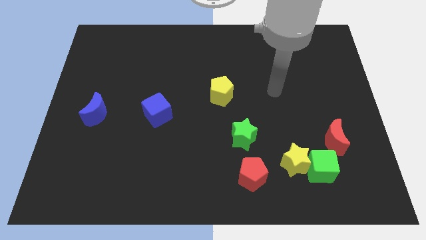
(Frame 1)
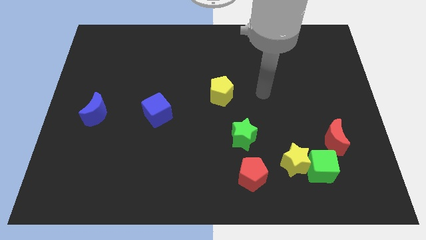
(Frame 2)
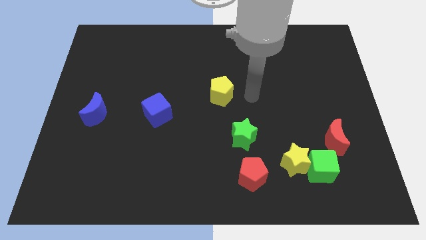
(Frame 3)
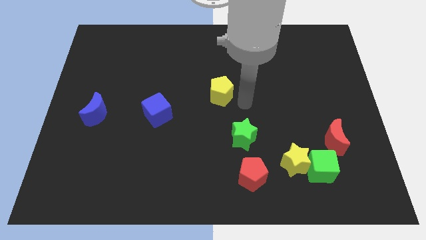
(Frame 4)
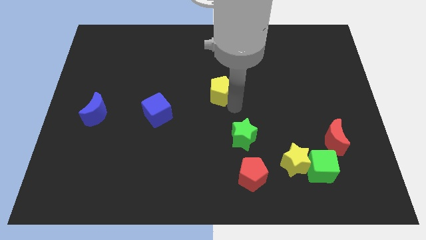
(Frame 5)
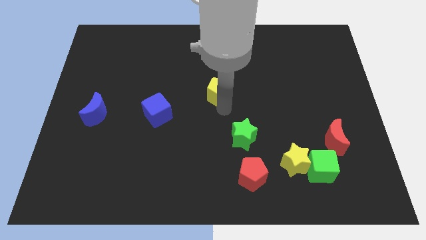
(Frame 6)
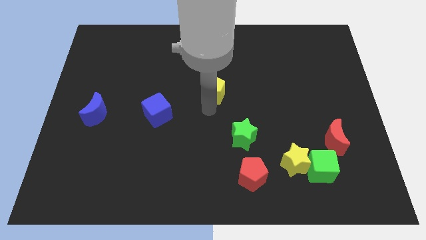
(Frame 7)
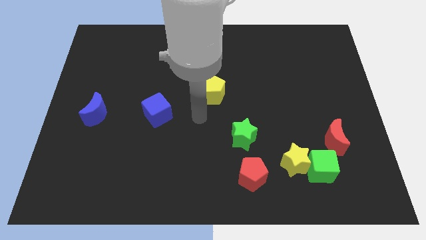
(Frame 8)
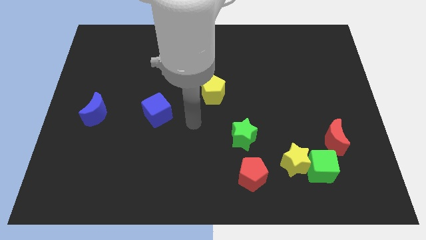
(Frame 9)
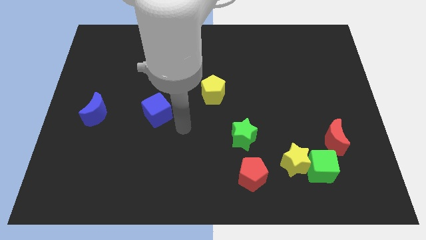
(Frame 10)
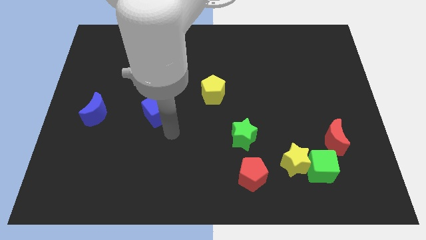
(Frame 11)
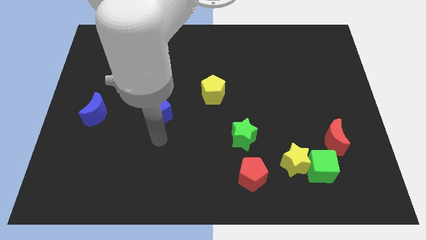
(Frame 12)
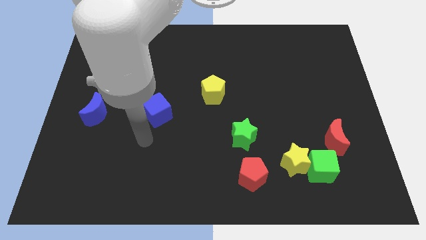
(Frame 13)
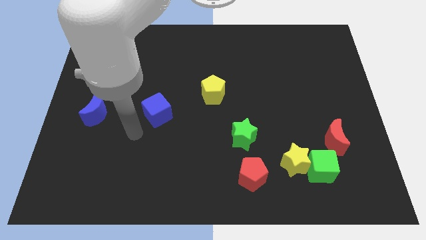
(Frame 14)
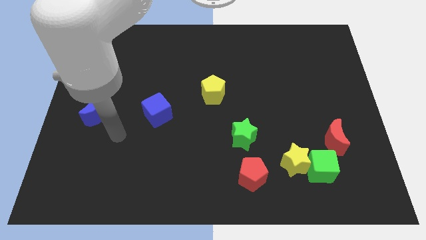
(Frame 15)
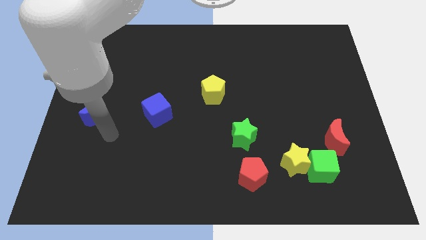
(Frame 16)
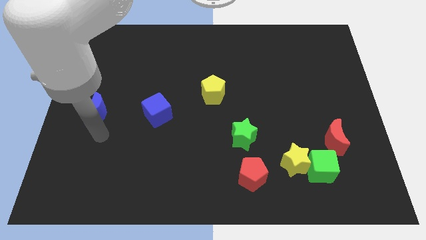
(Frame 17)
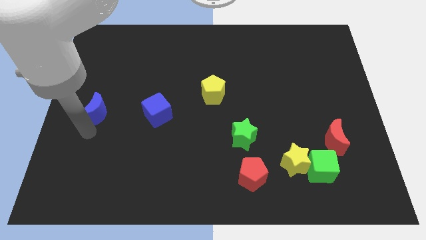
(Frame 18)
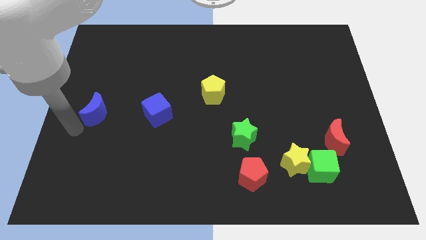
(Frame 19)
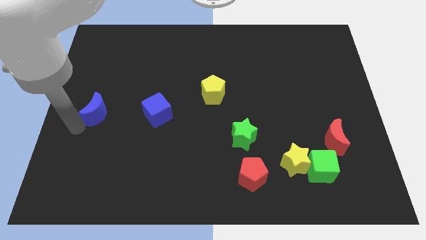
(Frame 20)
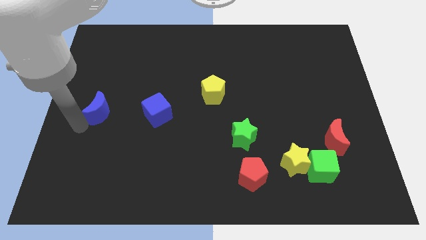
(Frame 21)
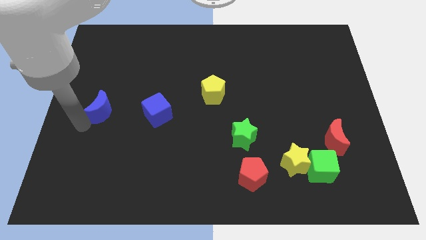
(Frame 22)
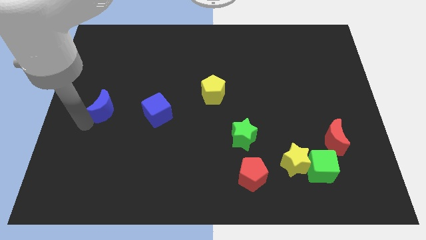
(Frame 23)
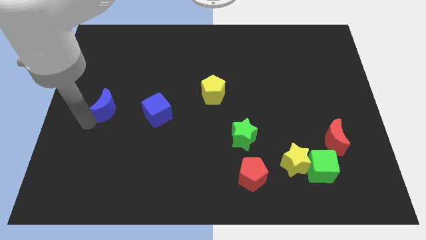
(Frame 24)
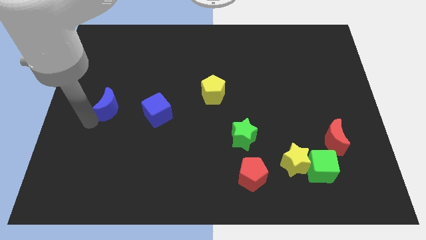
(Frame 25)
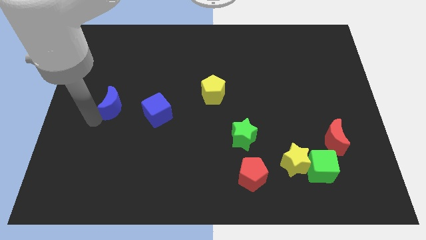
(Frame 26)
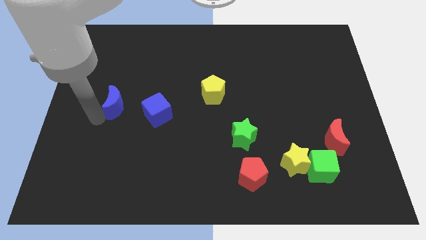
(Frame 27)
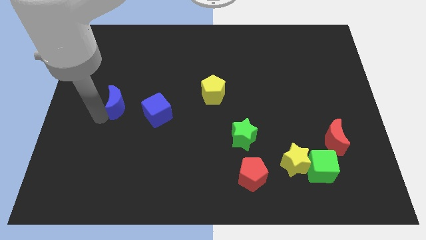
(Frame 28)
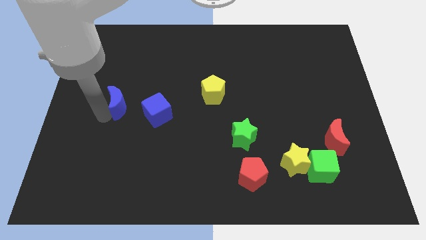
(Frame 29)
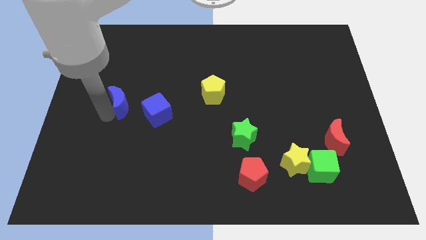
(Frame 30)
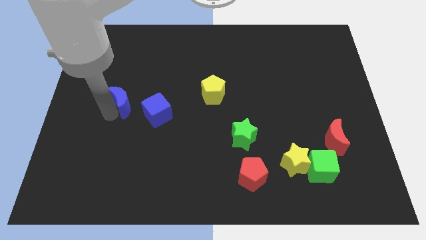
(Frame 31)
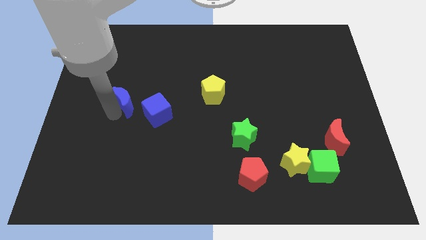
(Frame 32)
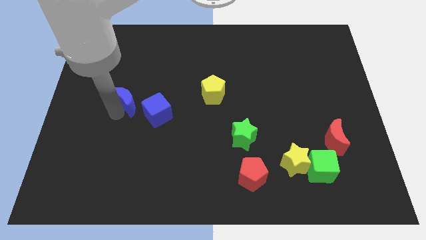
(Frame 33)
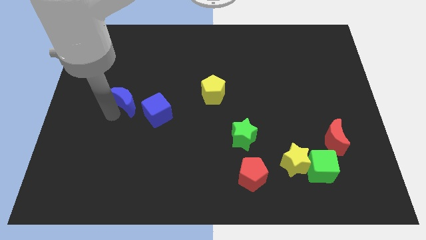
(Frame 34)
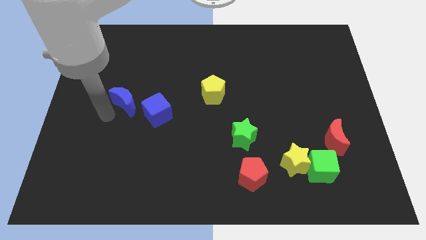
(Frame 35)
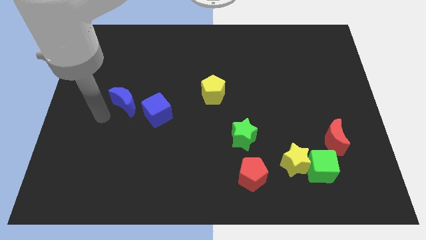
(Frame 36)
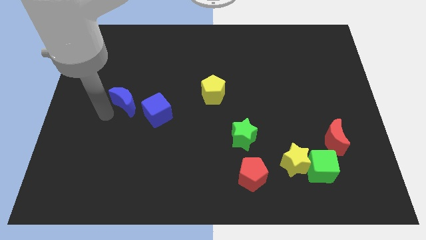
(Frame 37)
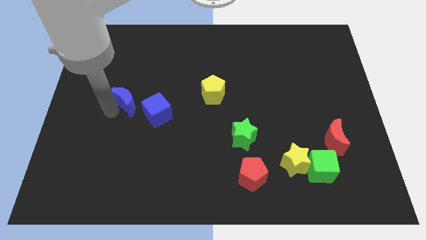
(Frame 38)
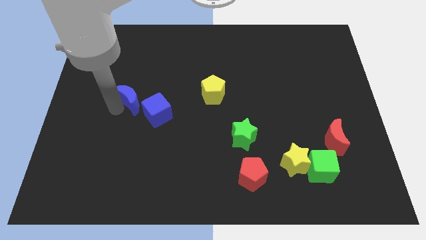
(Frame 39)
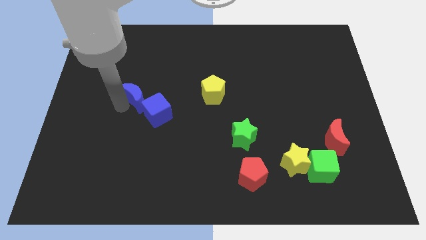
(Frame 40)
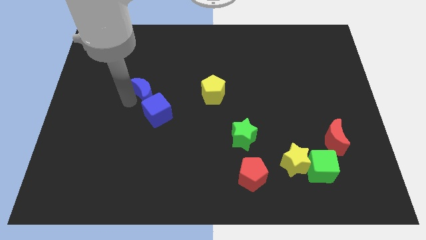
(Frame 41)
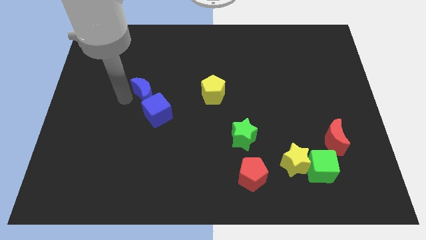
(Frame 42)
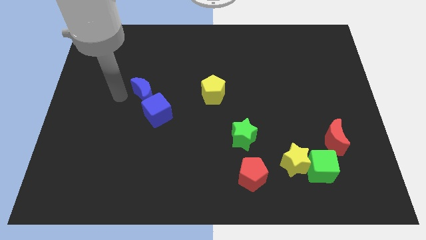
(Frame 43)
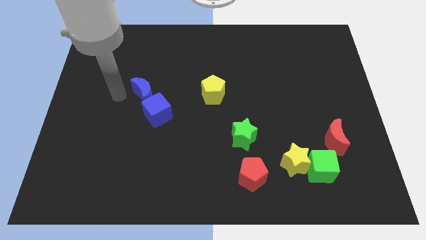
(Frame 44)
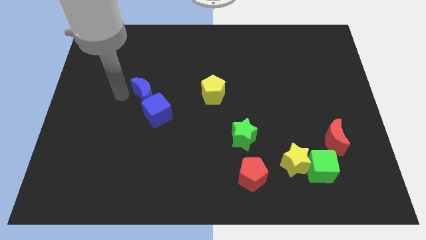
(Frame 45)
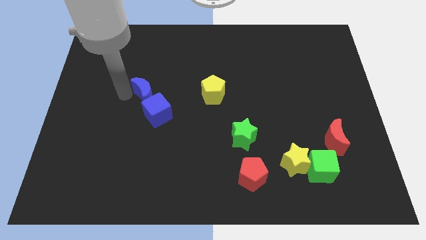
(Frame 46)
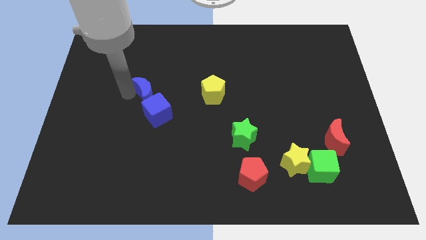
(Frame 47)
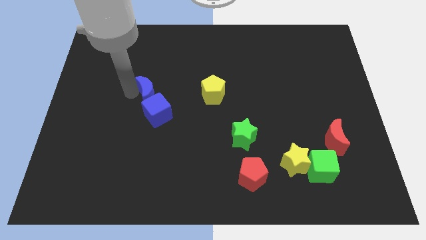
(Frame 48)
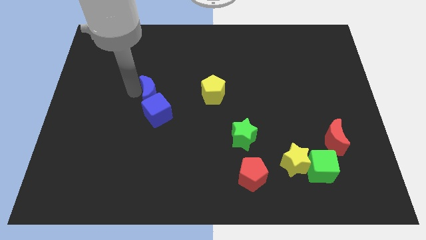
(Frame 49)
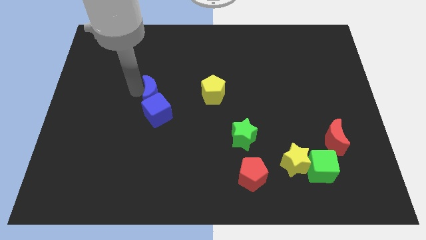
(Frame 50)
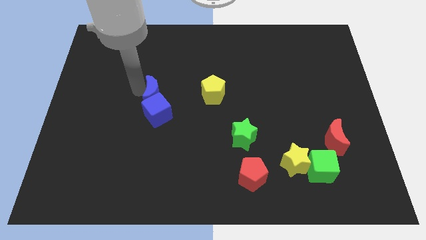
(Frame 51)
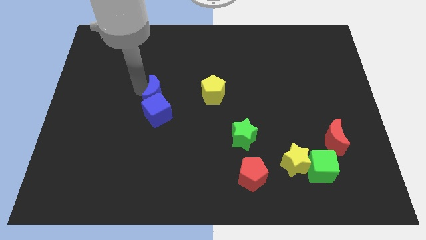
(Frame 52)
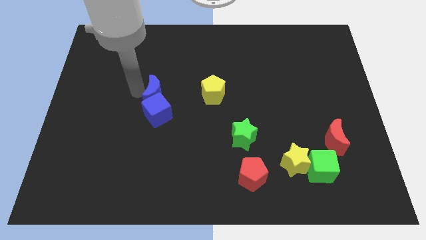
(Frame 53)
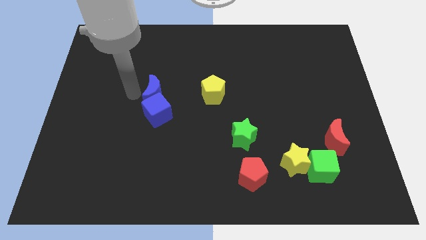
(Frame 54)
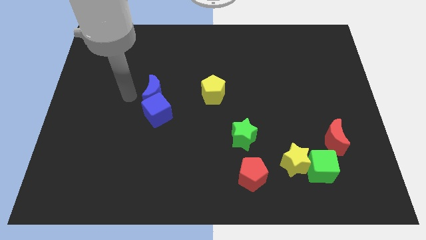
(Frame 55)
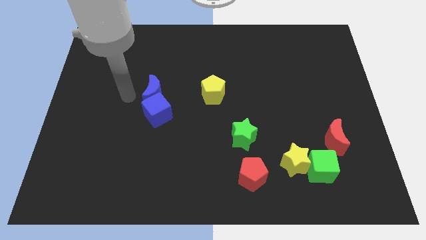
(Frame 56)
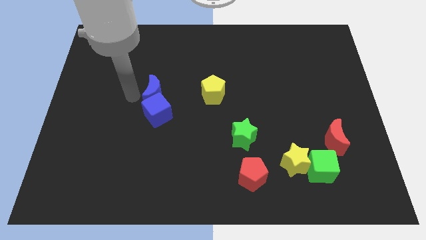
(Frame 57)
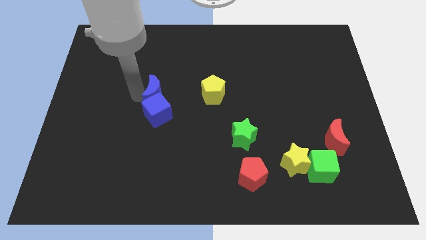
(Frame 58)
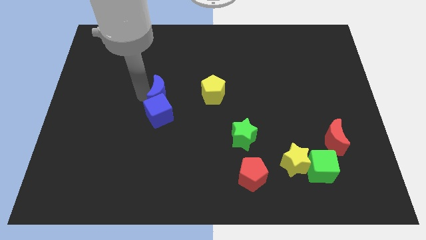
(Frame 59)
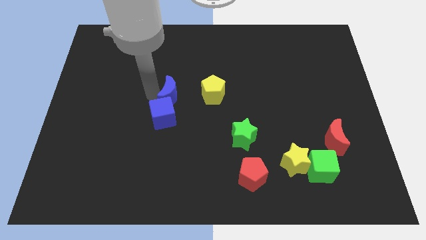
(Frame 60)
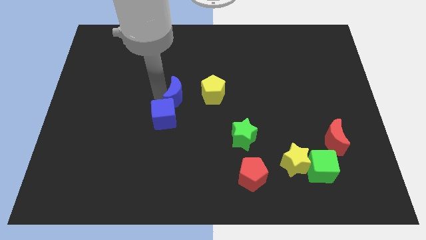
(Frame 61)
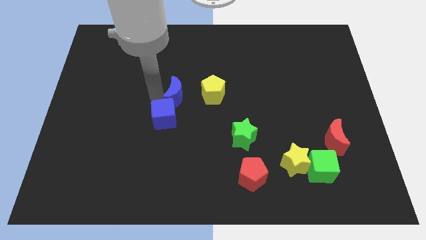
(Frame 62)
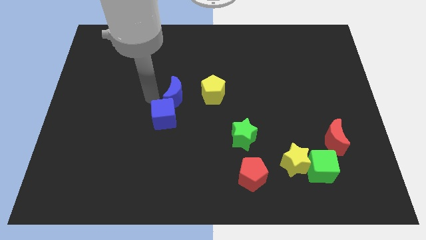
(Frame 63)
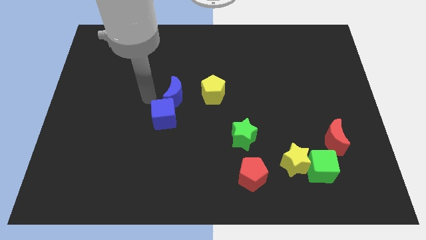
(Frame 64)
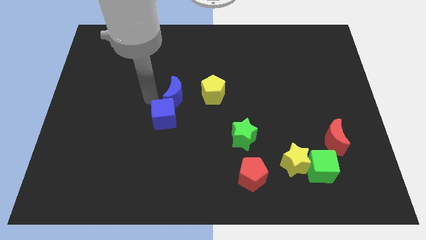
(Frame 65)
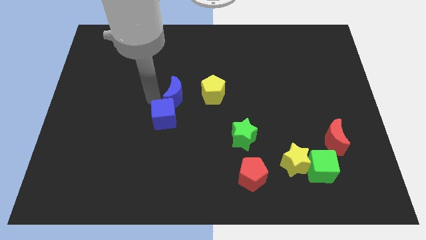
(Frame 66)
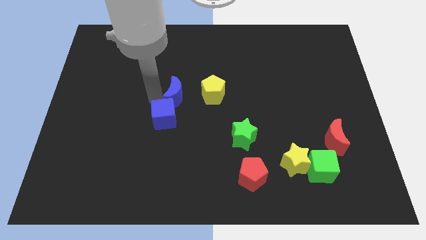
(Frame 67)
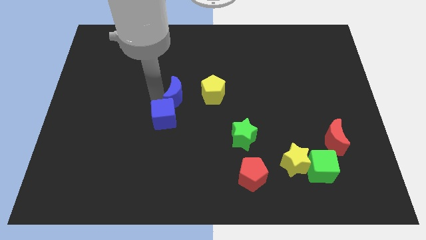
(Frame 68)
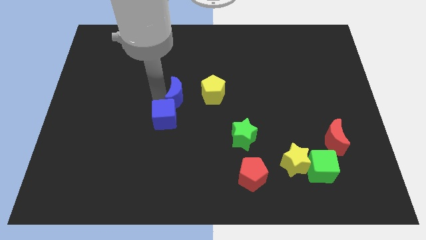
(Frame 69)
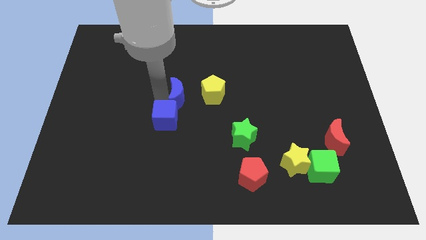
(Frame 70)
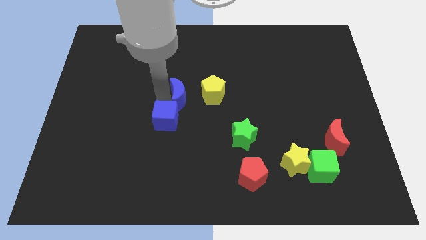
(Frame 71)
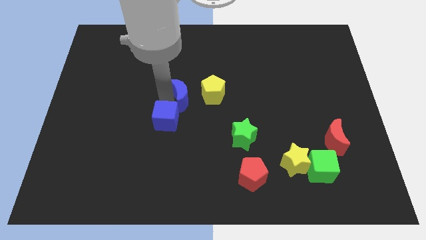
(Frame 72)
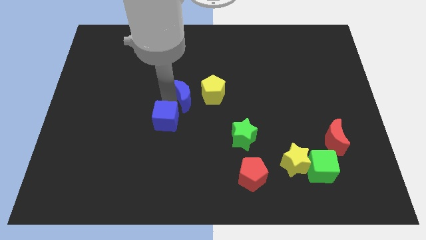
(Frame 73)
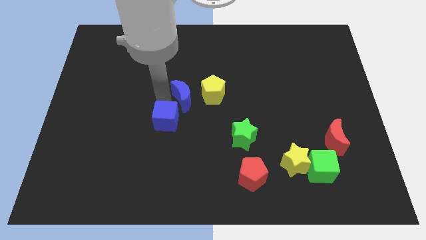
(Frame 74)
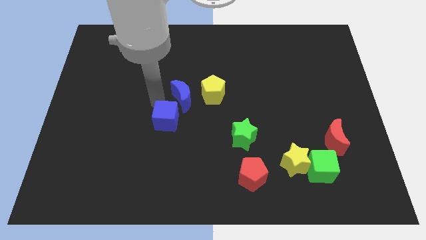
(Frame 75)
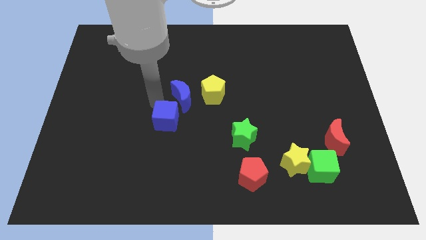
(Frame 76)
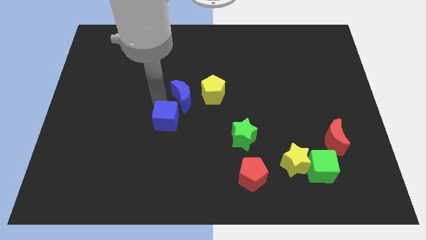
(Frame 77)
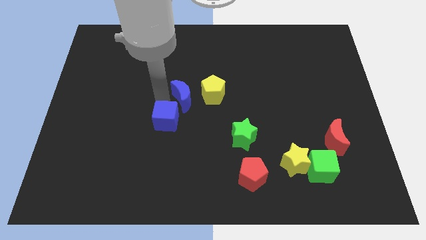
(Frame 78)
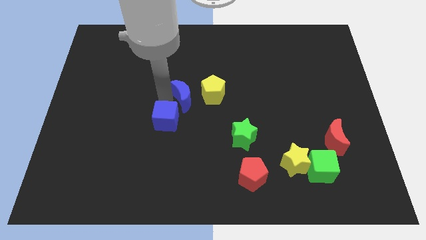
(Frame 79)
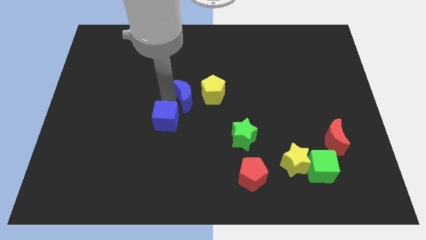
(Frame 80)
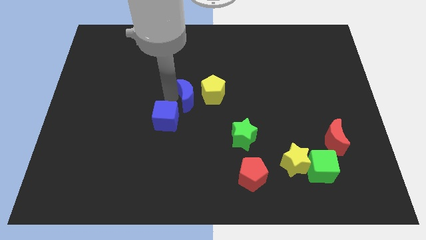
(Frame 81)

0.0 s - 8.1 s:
push the blue moon towards the yellow pentagon
